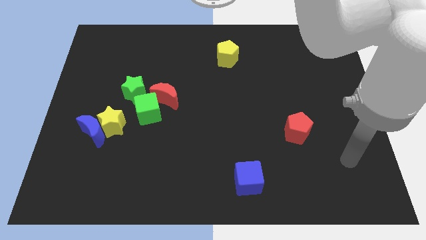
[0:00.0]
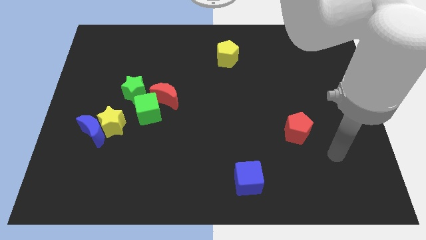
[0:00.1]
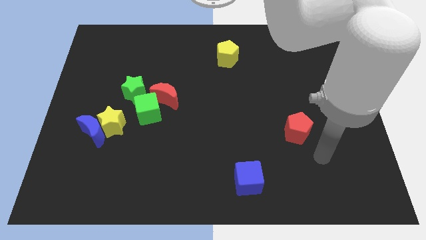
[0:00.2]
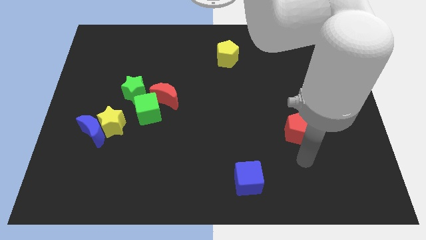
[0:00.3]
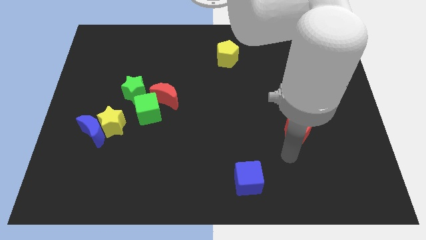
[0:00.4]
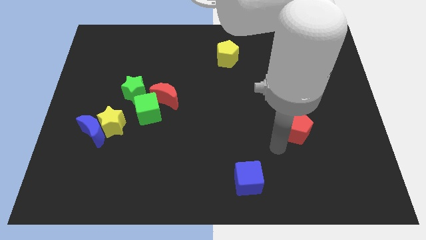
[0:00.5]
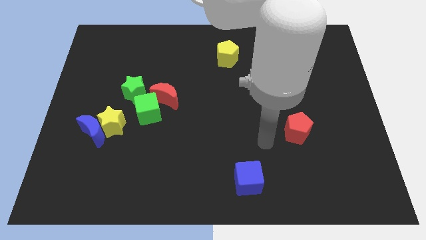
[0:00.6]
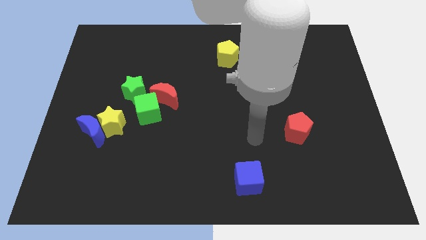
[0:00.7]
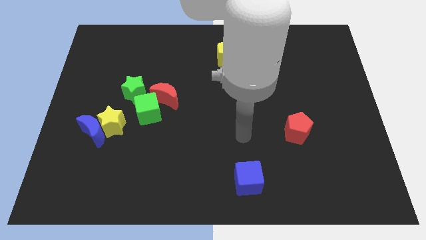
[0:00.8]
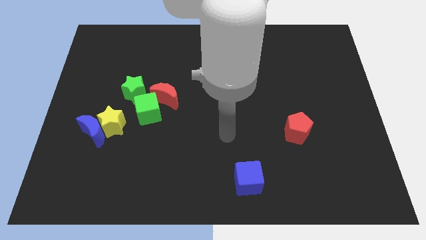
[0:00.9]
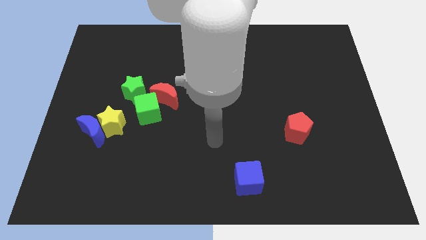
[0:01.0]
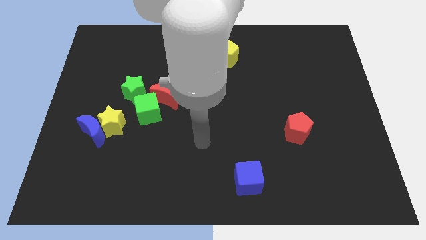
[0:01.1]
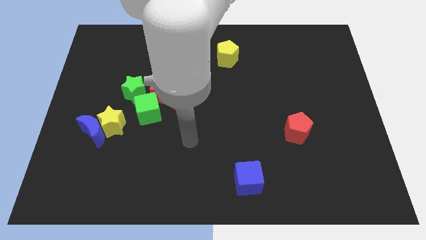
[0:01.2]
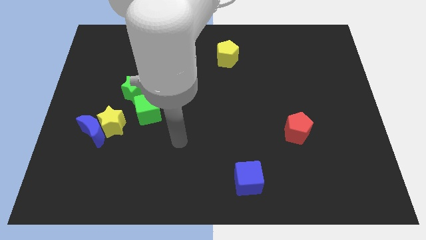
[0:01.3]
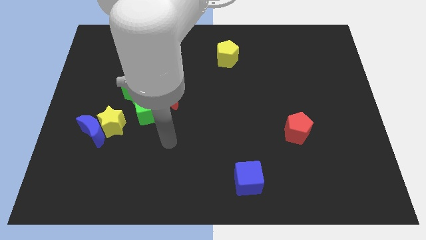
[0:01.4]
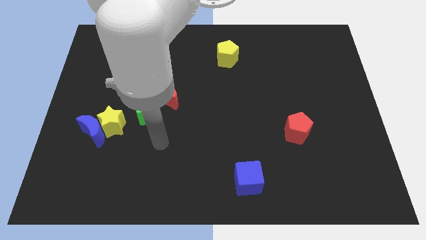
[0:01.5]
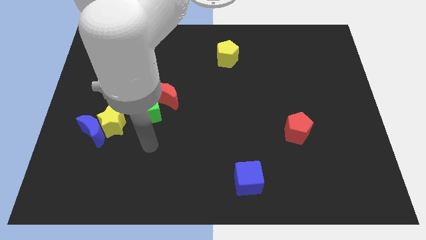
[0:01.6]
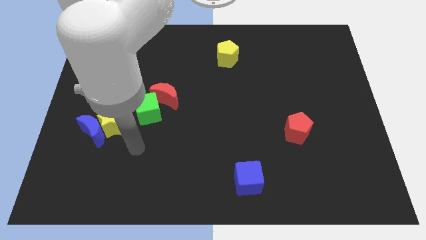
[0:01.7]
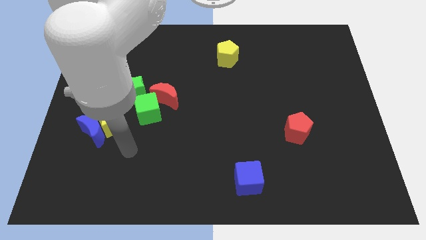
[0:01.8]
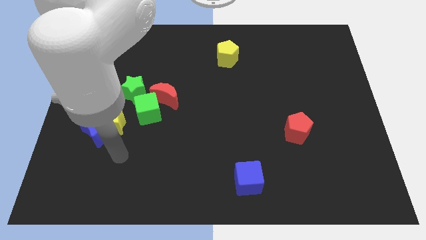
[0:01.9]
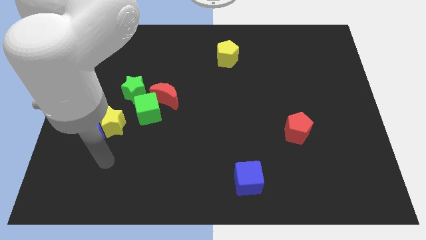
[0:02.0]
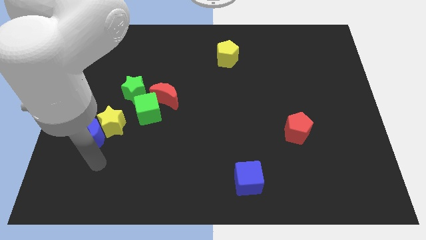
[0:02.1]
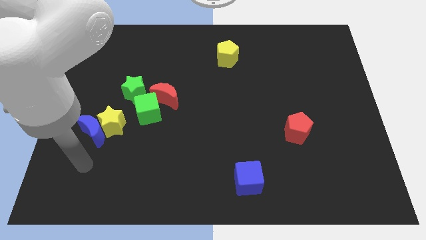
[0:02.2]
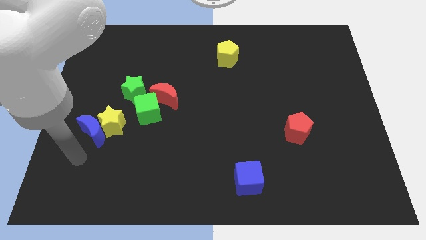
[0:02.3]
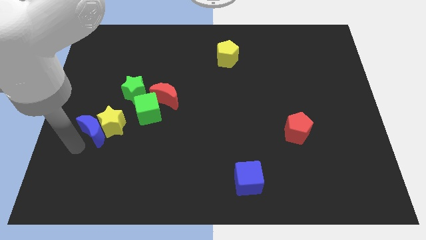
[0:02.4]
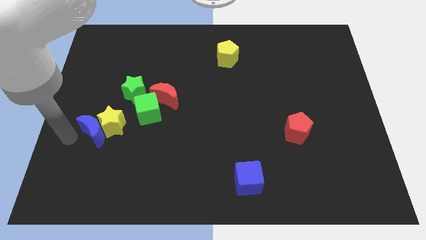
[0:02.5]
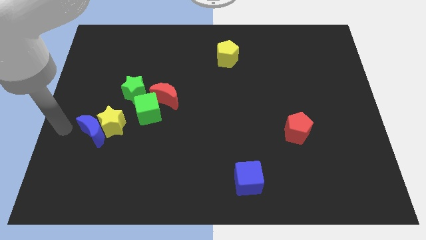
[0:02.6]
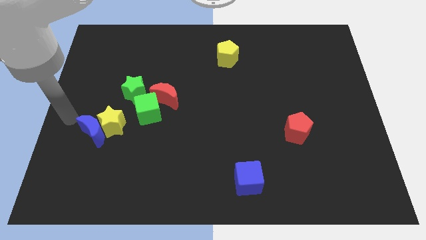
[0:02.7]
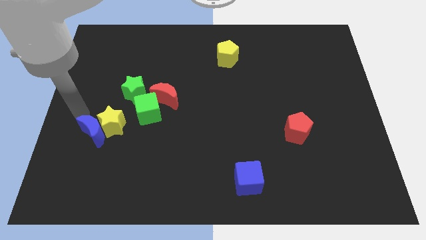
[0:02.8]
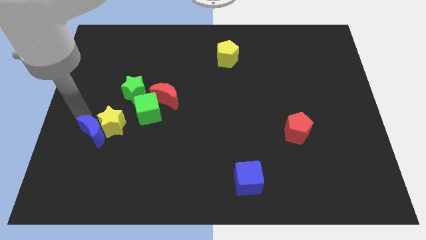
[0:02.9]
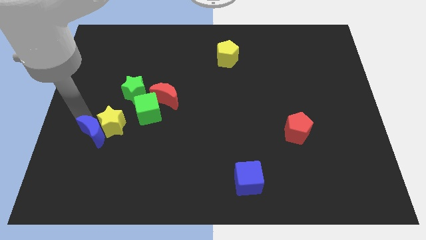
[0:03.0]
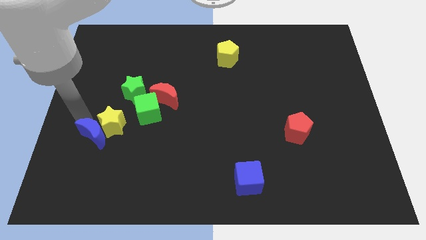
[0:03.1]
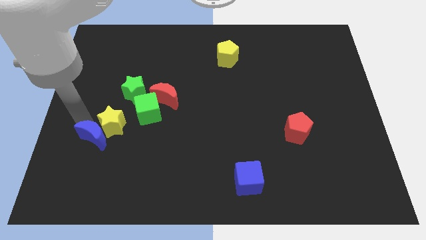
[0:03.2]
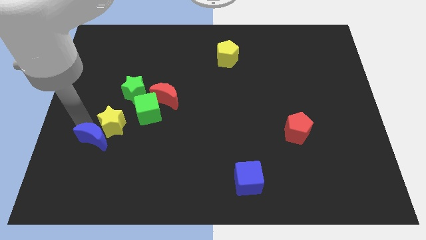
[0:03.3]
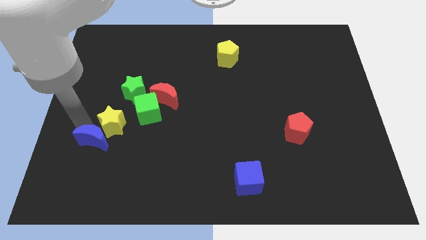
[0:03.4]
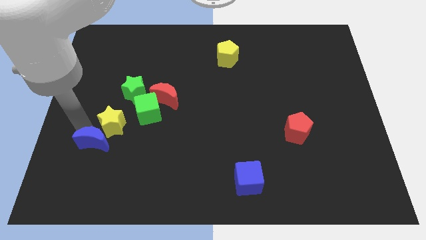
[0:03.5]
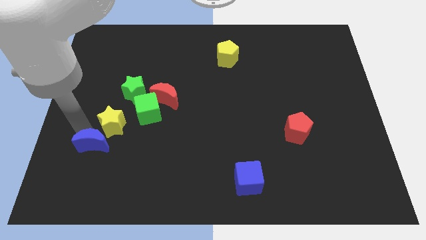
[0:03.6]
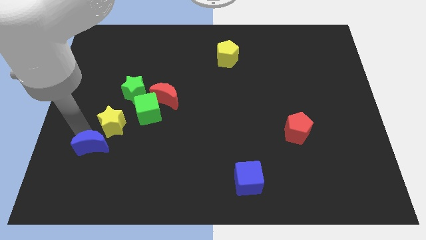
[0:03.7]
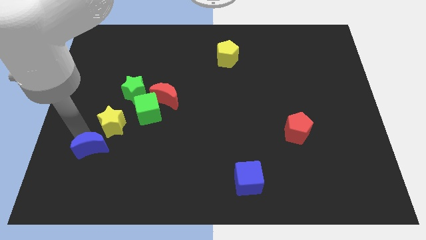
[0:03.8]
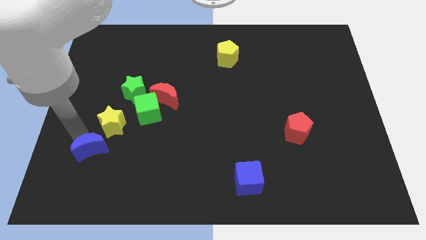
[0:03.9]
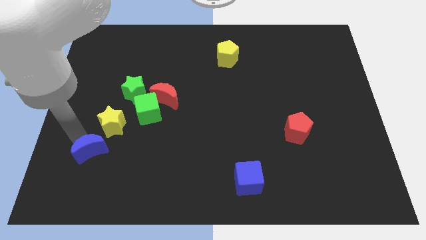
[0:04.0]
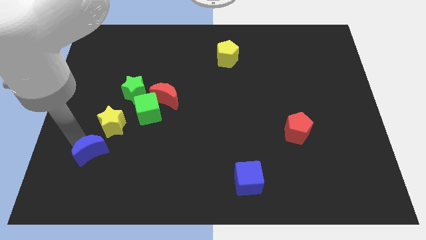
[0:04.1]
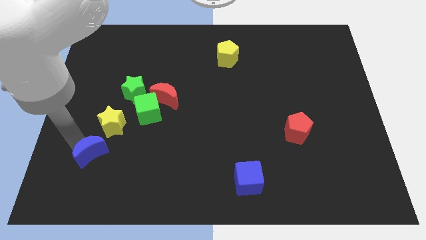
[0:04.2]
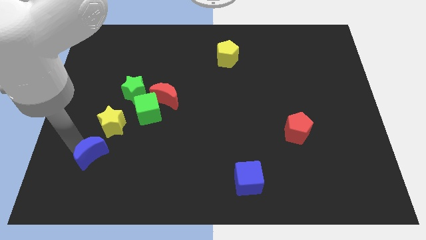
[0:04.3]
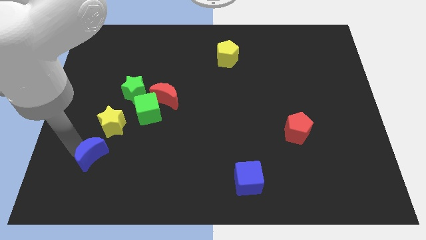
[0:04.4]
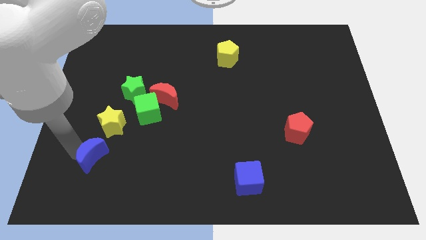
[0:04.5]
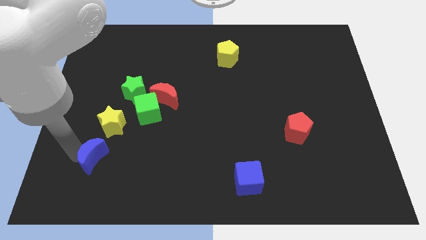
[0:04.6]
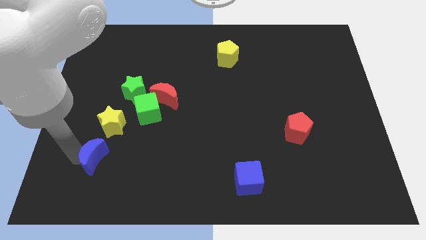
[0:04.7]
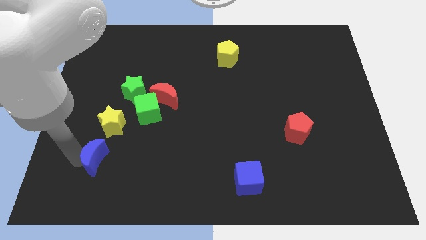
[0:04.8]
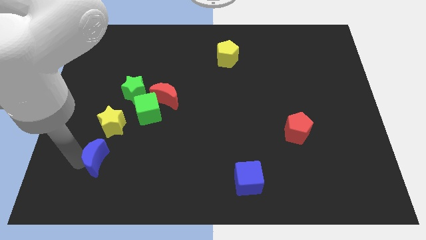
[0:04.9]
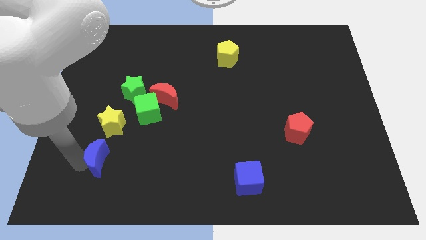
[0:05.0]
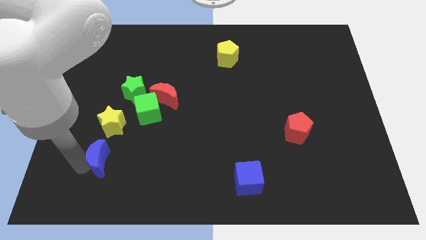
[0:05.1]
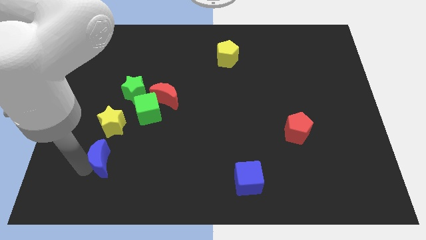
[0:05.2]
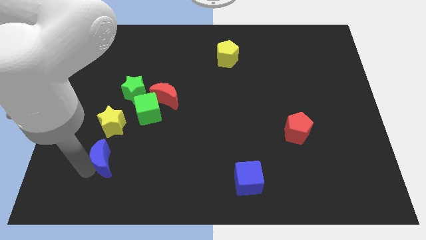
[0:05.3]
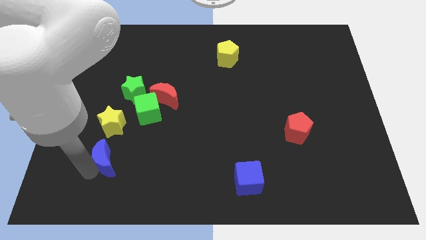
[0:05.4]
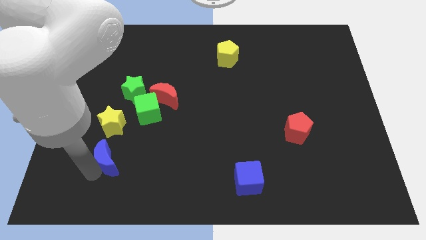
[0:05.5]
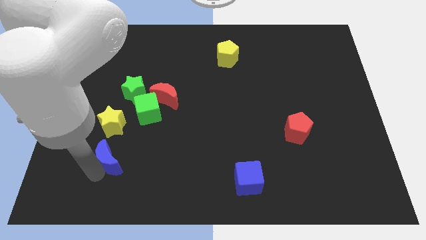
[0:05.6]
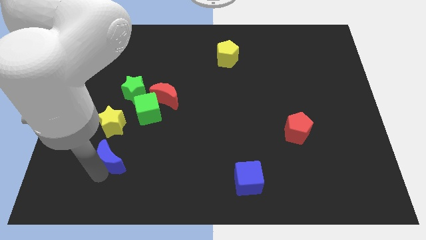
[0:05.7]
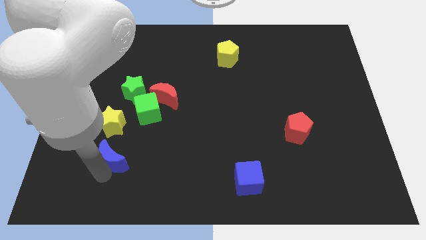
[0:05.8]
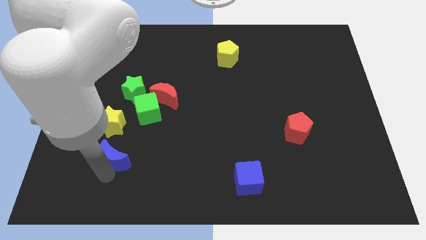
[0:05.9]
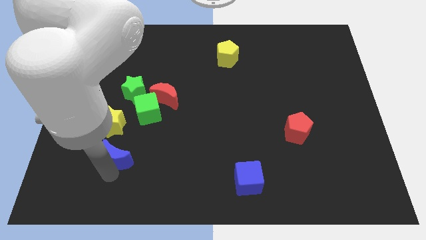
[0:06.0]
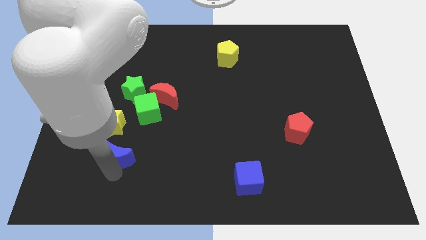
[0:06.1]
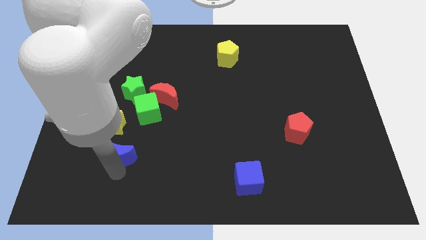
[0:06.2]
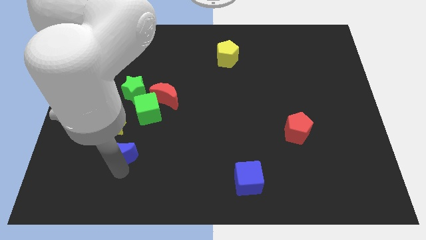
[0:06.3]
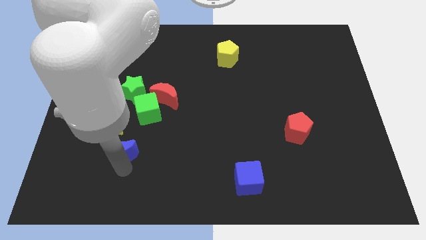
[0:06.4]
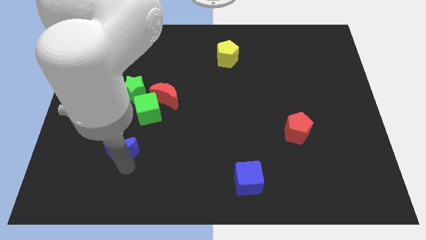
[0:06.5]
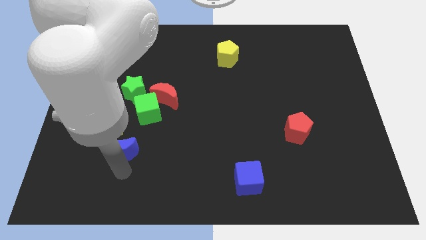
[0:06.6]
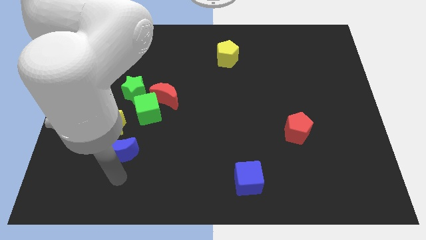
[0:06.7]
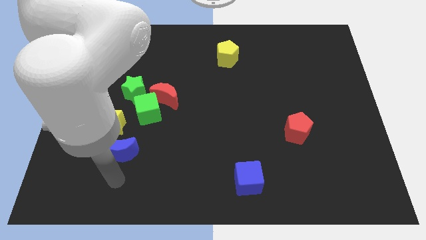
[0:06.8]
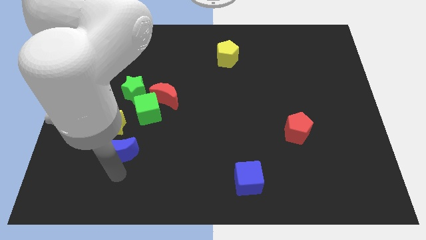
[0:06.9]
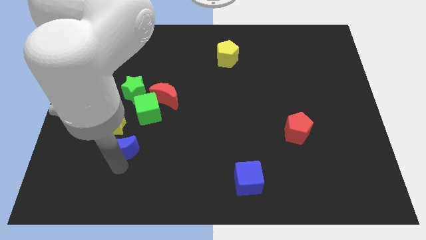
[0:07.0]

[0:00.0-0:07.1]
move the blue moon to the bottom of the green star
